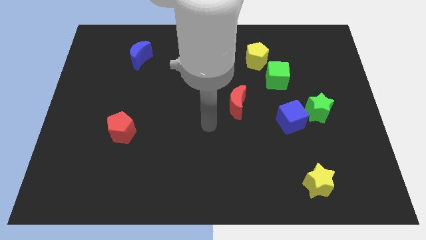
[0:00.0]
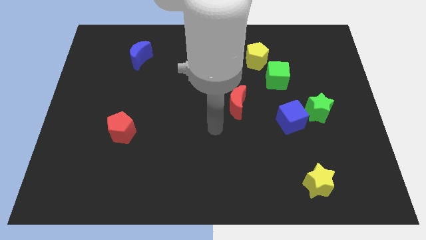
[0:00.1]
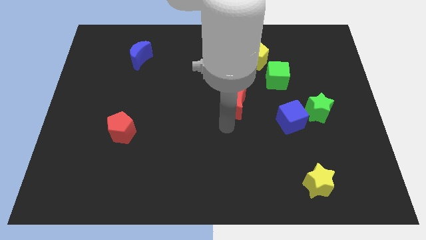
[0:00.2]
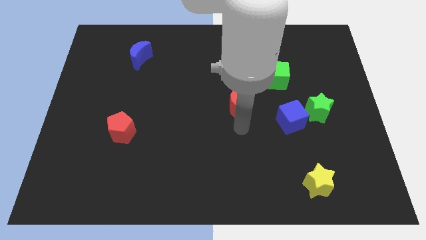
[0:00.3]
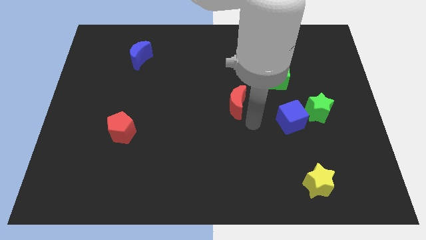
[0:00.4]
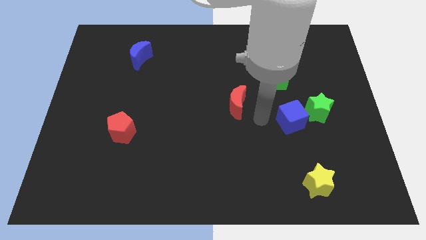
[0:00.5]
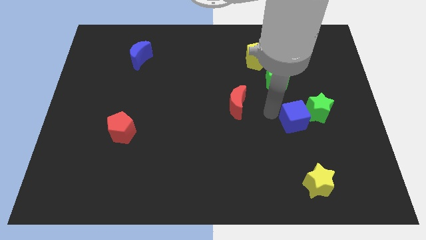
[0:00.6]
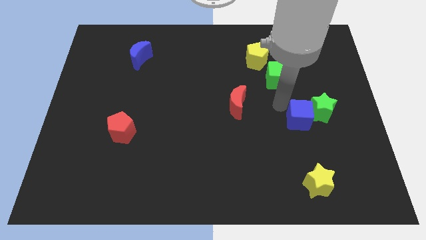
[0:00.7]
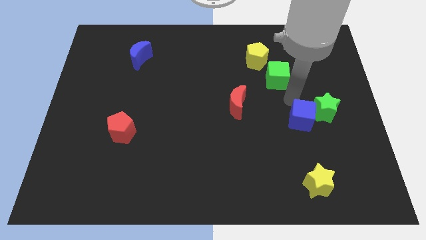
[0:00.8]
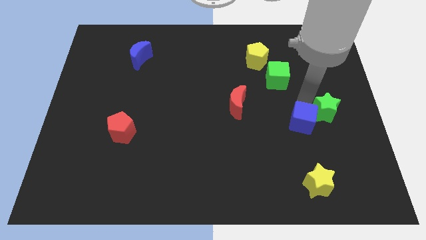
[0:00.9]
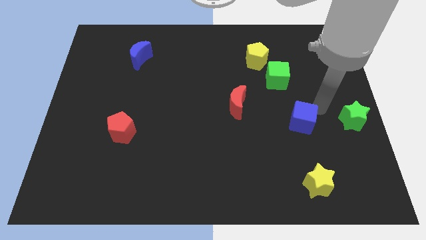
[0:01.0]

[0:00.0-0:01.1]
separate the blue cube from the green star

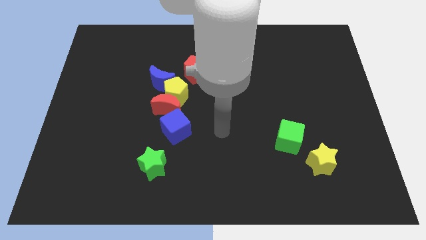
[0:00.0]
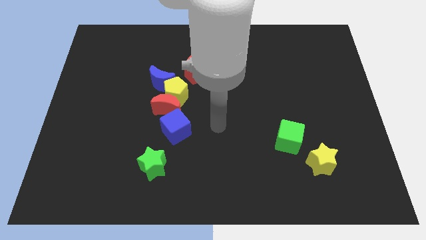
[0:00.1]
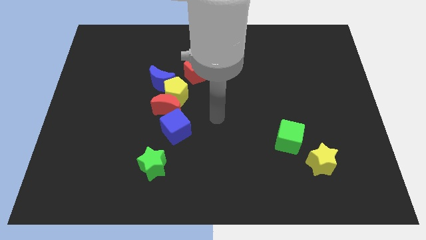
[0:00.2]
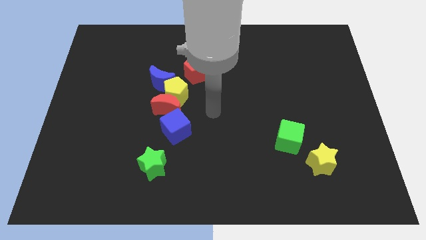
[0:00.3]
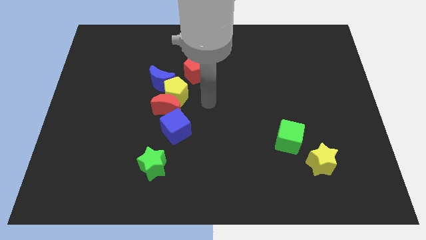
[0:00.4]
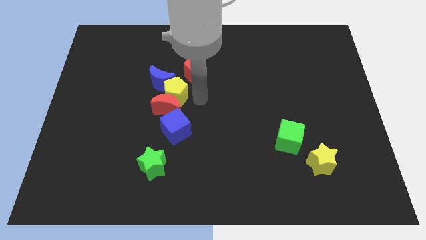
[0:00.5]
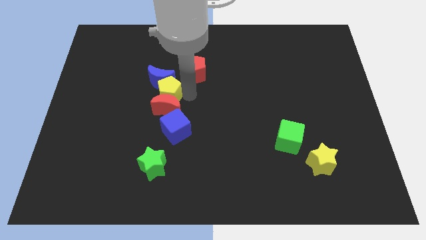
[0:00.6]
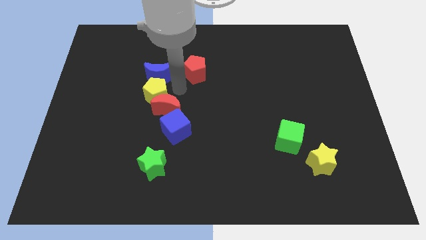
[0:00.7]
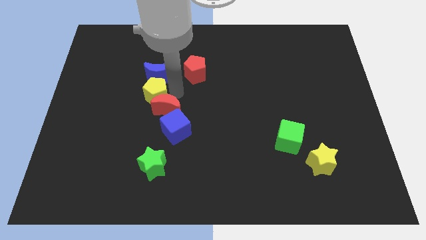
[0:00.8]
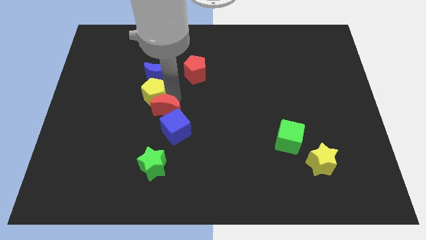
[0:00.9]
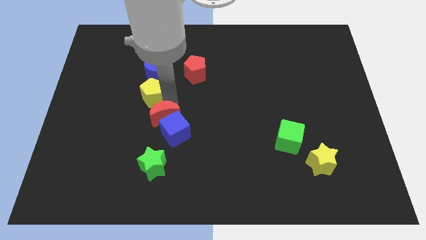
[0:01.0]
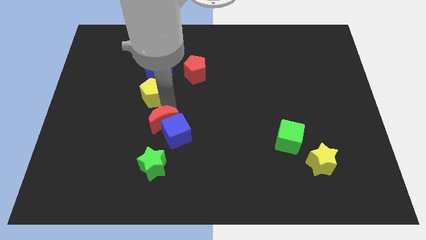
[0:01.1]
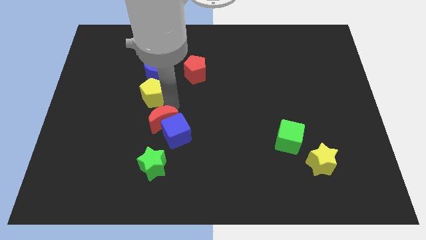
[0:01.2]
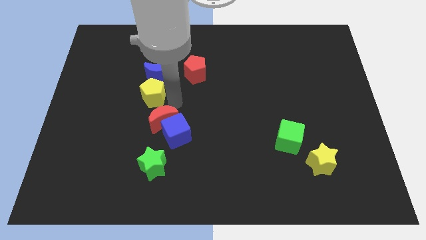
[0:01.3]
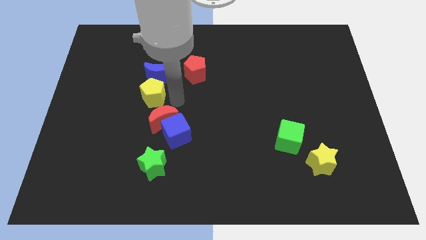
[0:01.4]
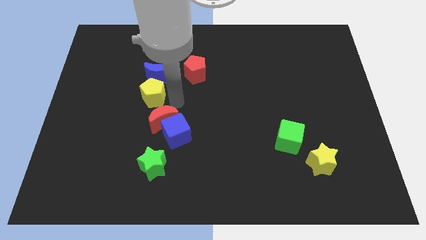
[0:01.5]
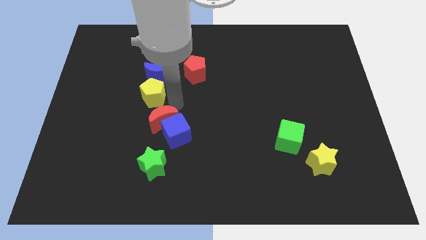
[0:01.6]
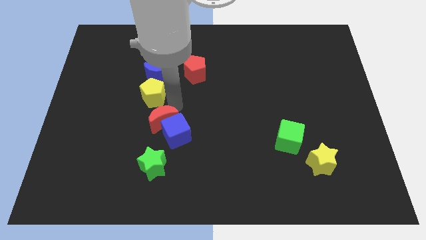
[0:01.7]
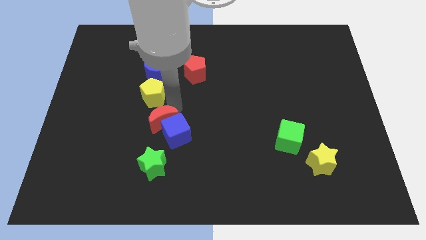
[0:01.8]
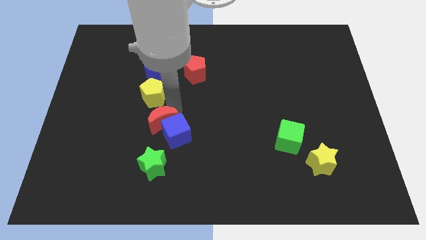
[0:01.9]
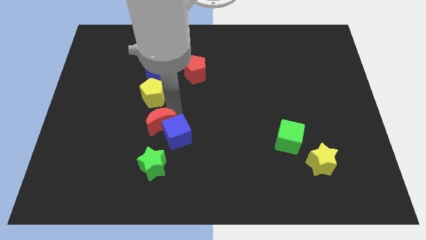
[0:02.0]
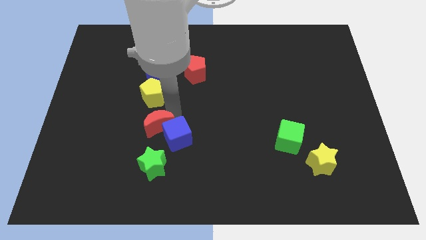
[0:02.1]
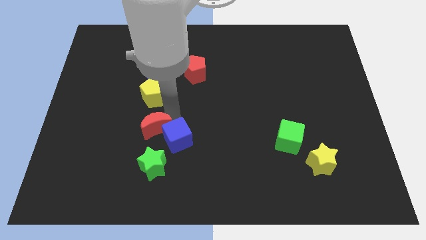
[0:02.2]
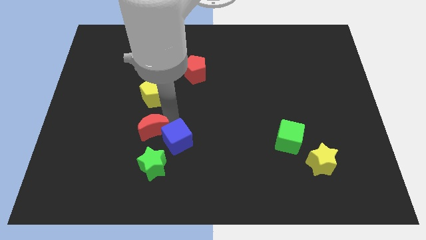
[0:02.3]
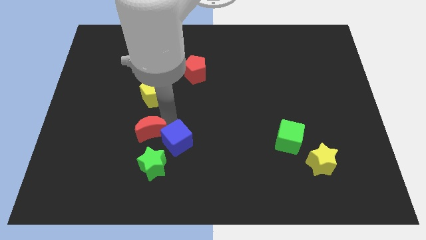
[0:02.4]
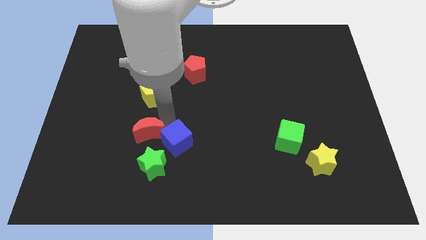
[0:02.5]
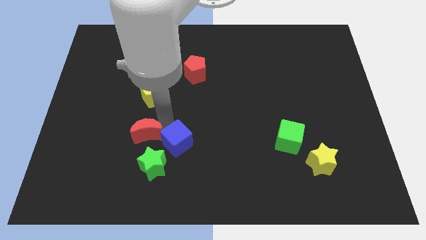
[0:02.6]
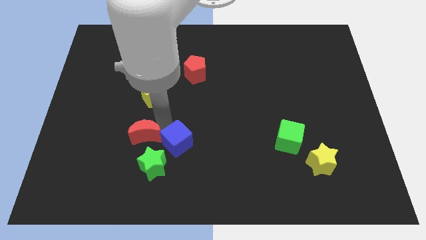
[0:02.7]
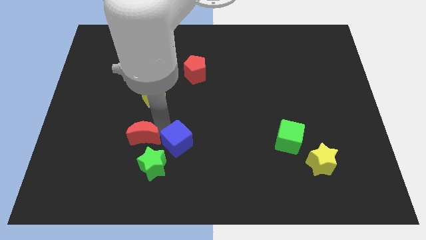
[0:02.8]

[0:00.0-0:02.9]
move the red moon away from the yellow pentagon, blue cube, and blue moon

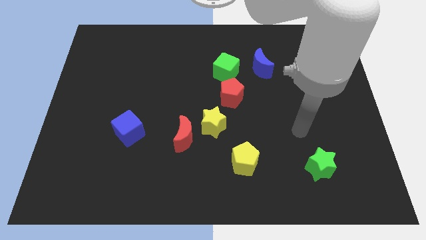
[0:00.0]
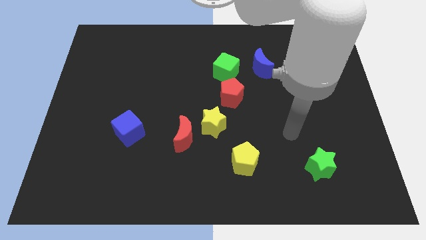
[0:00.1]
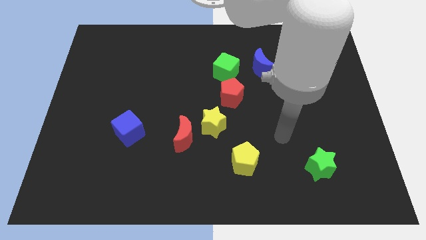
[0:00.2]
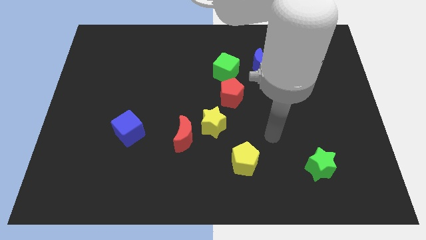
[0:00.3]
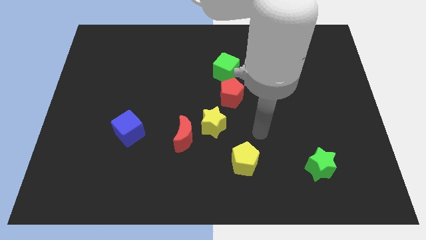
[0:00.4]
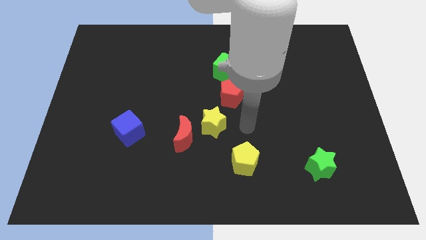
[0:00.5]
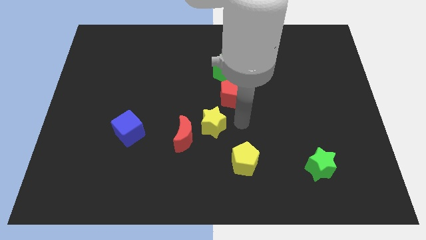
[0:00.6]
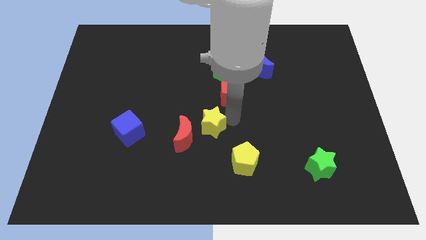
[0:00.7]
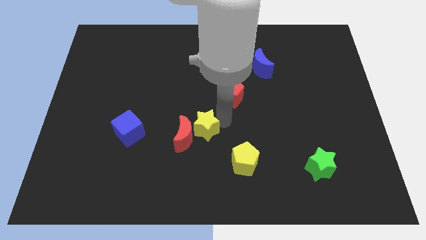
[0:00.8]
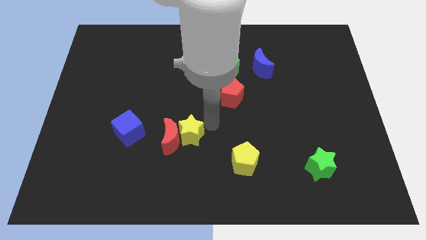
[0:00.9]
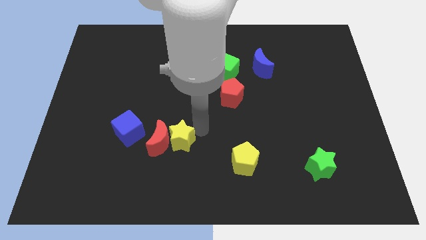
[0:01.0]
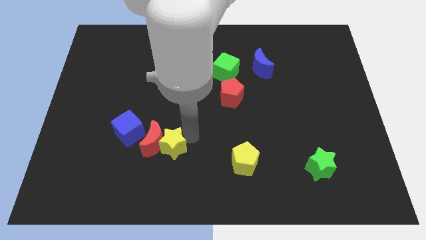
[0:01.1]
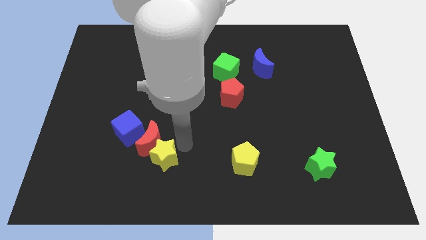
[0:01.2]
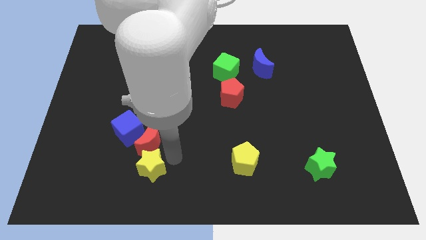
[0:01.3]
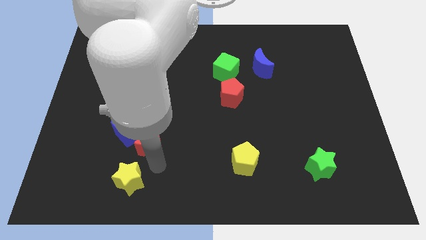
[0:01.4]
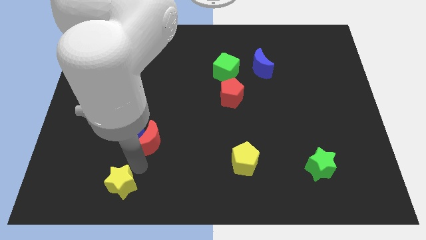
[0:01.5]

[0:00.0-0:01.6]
pull the red moon apart from the yellow star

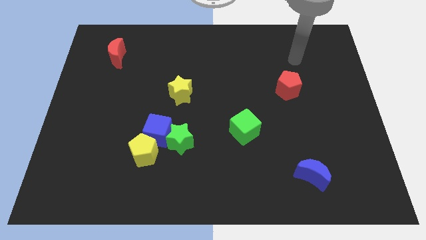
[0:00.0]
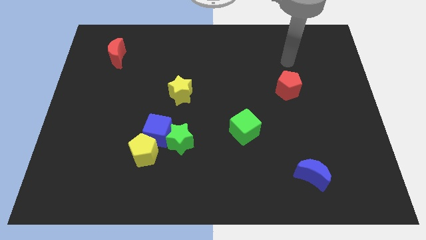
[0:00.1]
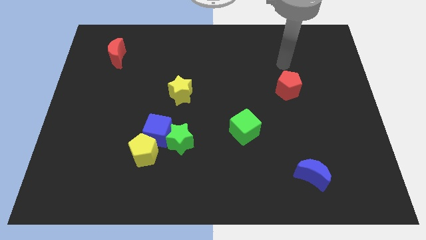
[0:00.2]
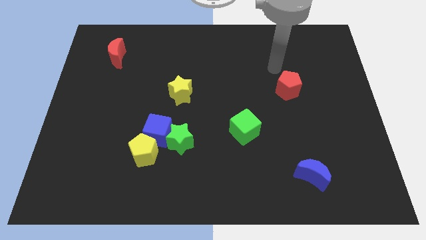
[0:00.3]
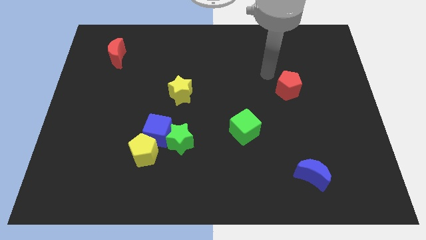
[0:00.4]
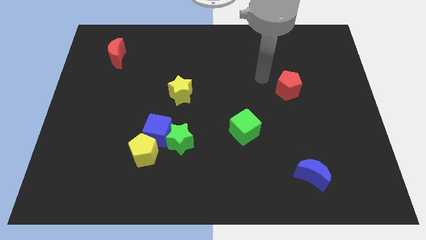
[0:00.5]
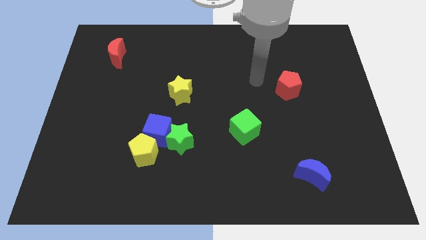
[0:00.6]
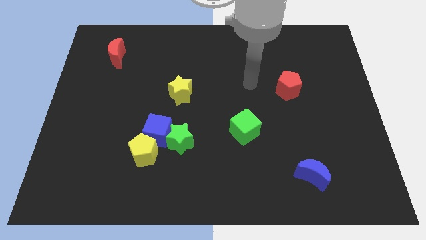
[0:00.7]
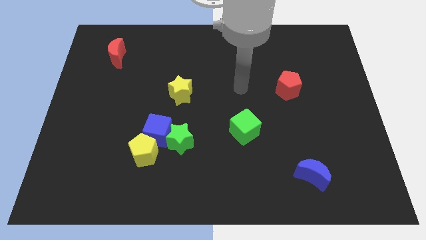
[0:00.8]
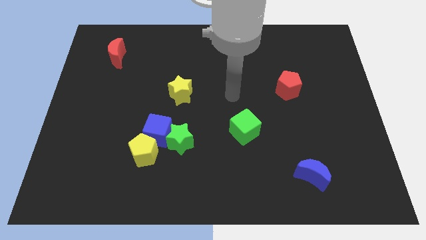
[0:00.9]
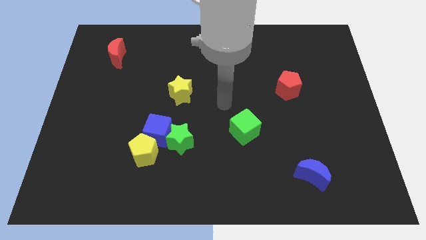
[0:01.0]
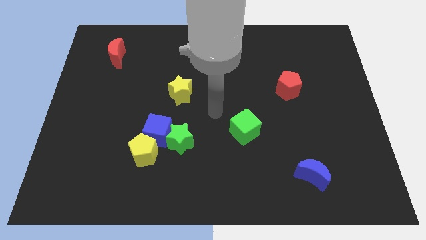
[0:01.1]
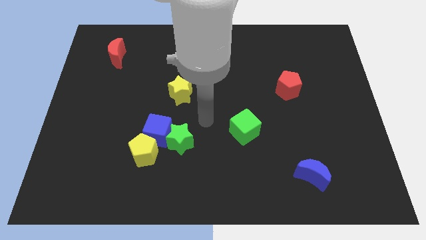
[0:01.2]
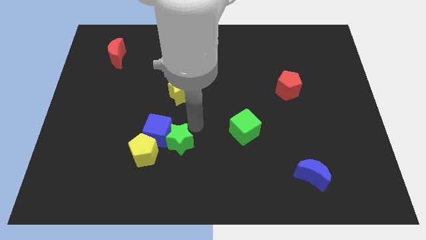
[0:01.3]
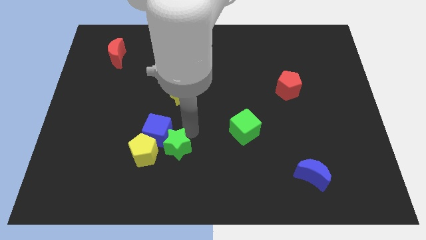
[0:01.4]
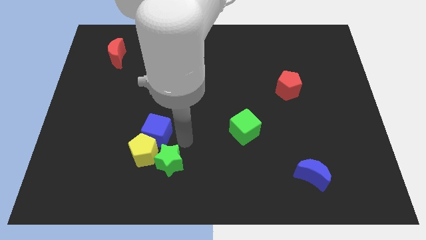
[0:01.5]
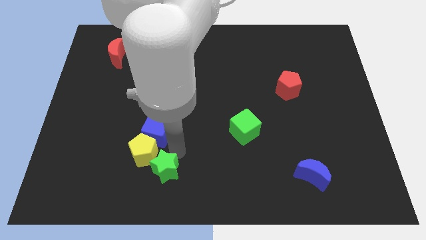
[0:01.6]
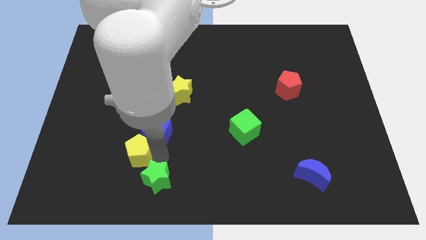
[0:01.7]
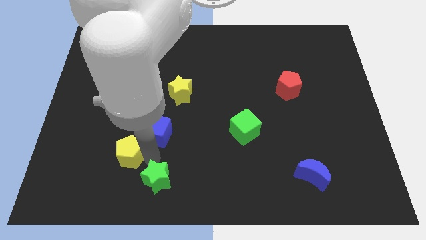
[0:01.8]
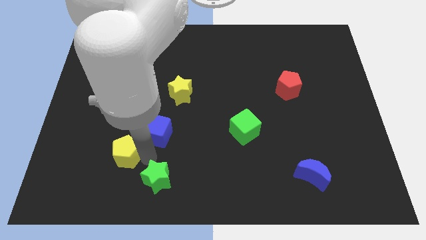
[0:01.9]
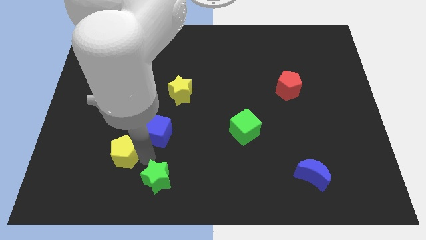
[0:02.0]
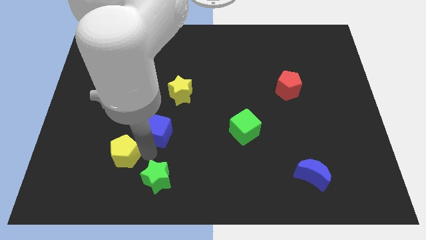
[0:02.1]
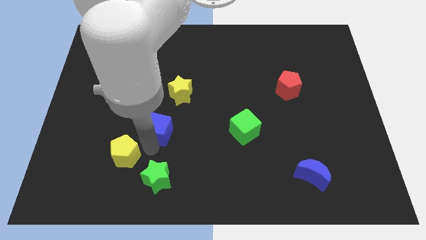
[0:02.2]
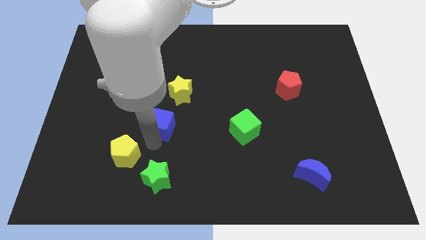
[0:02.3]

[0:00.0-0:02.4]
separate the blue cube from the green star and yellow pentagon

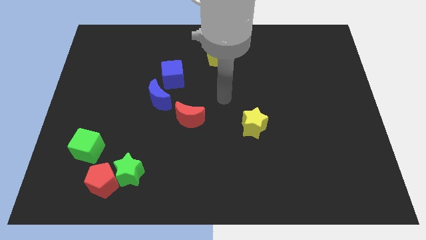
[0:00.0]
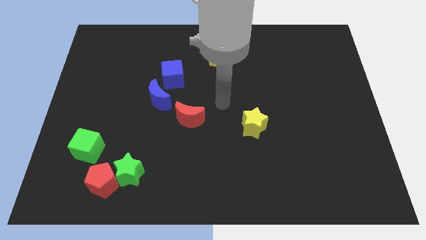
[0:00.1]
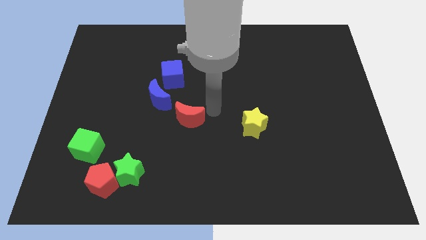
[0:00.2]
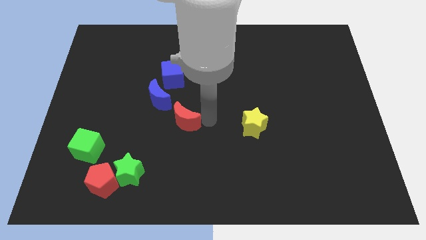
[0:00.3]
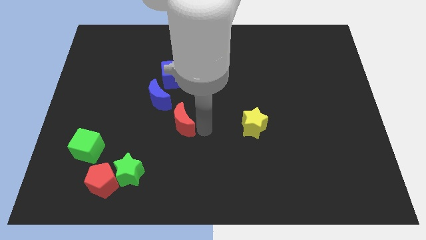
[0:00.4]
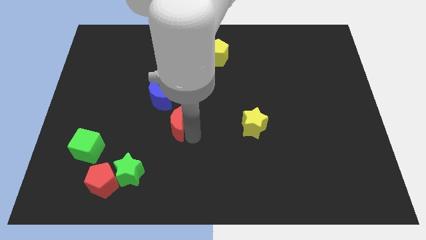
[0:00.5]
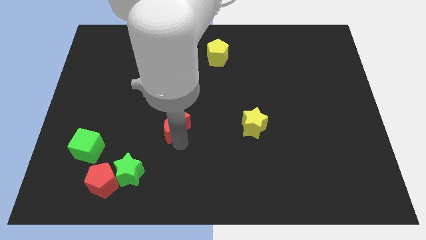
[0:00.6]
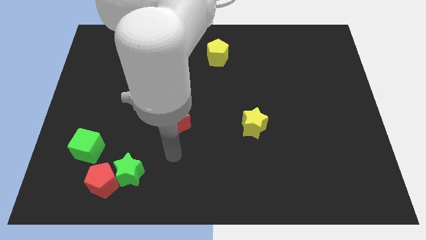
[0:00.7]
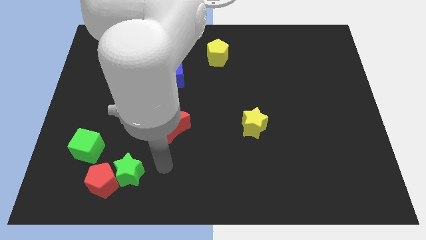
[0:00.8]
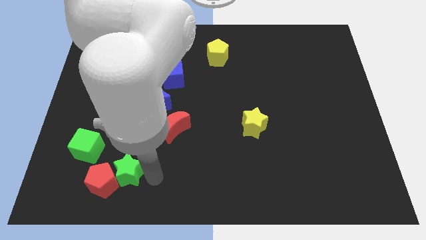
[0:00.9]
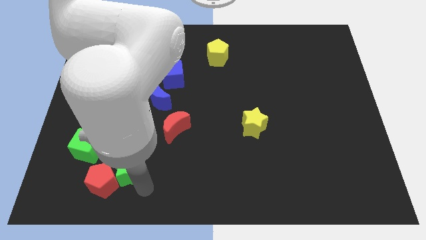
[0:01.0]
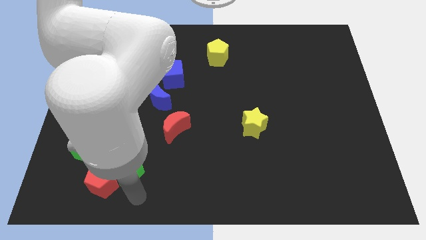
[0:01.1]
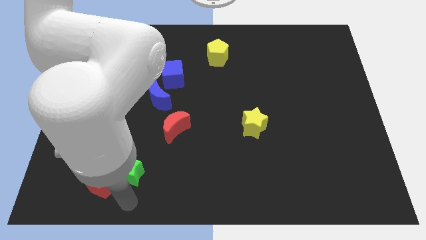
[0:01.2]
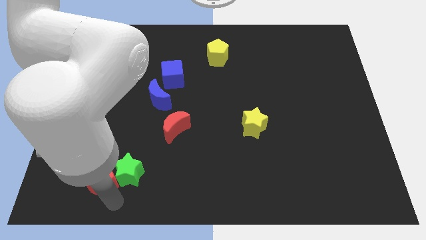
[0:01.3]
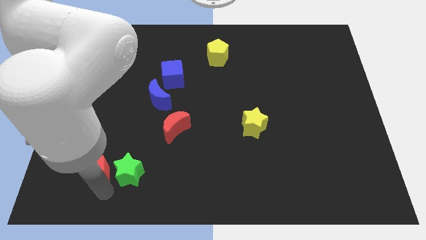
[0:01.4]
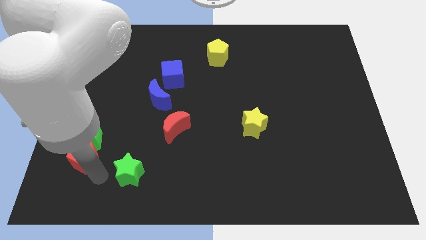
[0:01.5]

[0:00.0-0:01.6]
pull the green star apart from the red pentagon
